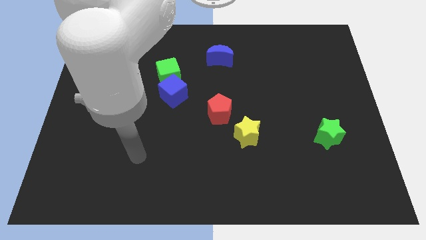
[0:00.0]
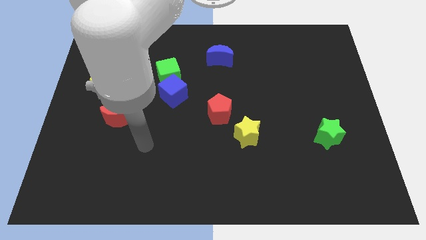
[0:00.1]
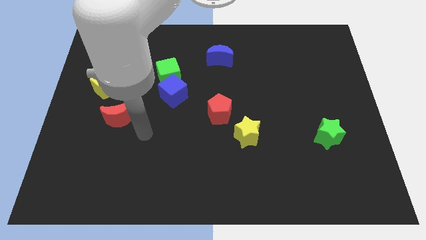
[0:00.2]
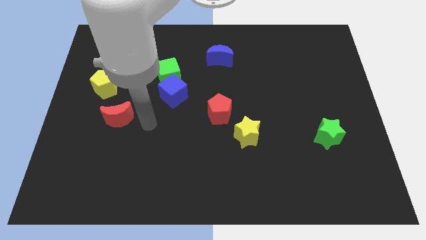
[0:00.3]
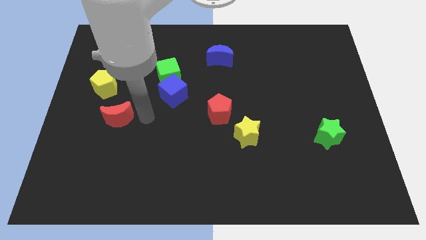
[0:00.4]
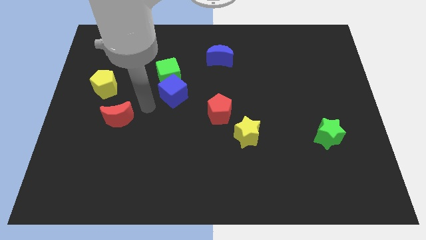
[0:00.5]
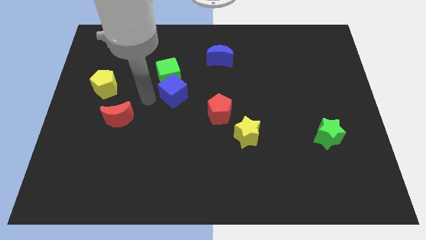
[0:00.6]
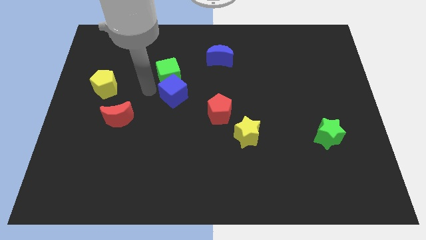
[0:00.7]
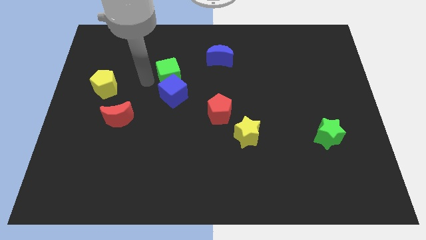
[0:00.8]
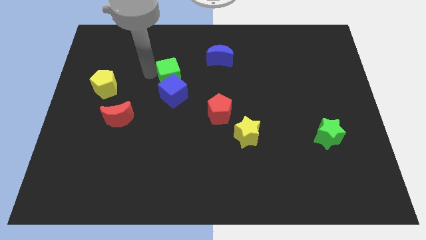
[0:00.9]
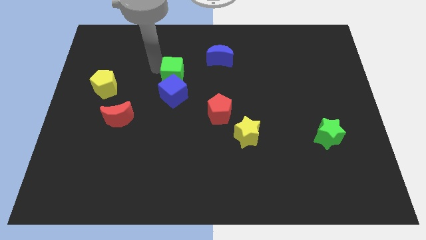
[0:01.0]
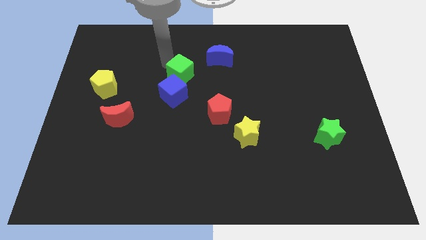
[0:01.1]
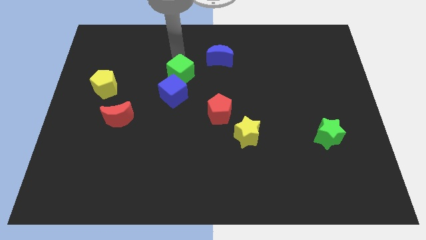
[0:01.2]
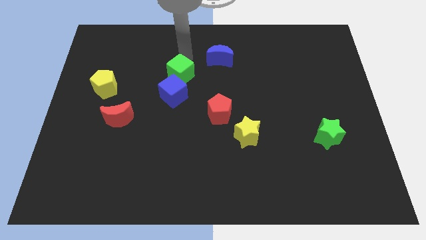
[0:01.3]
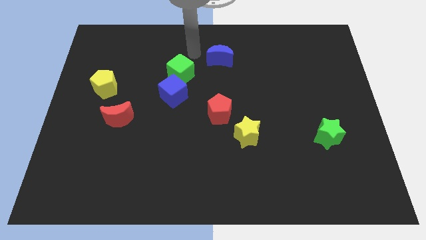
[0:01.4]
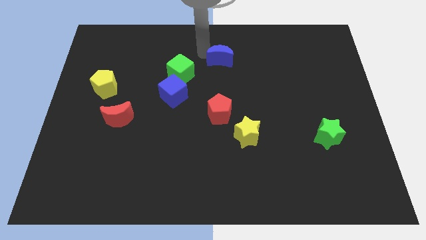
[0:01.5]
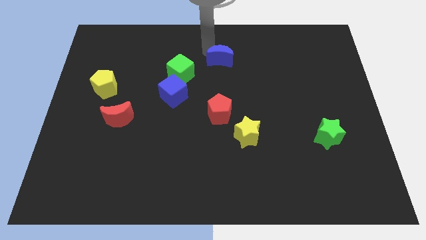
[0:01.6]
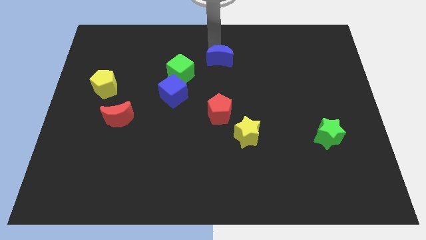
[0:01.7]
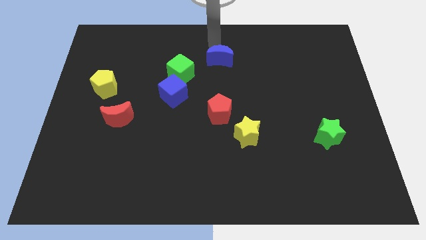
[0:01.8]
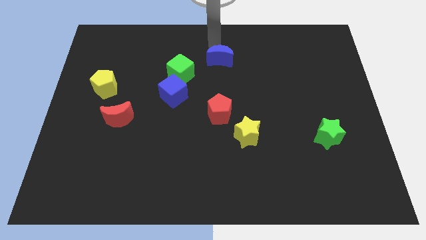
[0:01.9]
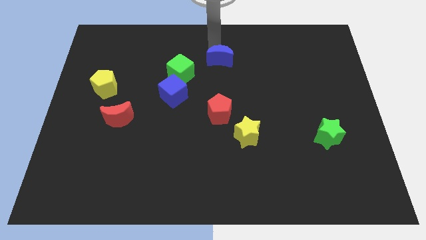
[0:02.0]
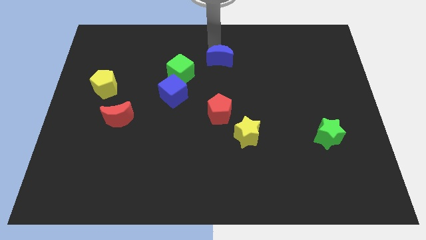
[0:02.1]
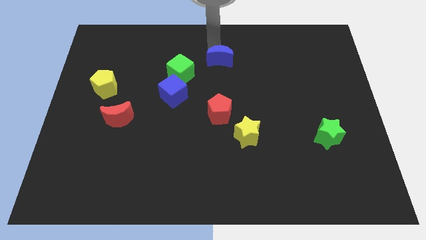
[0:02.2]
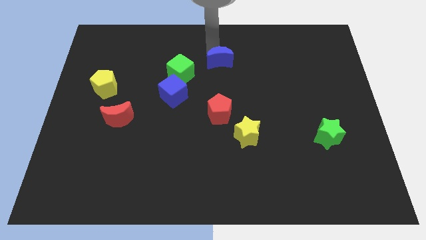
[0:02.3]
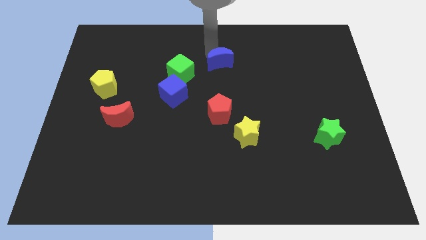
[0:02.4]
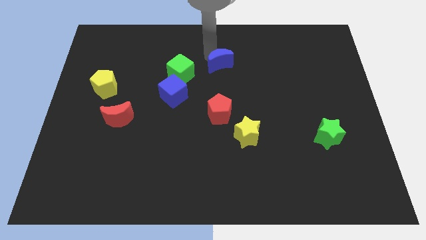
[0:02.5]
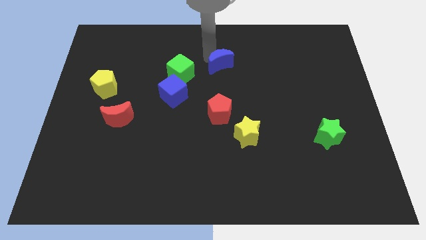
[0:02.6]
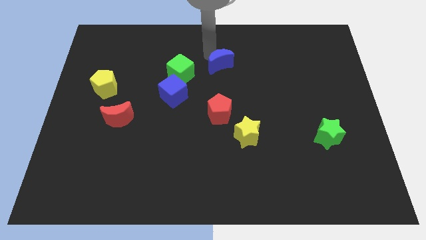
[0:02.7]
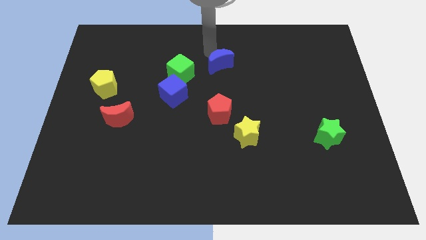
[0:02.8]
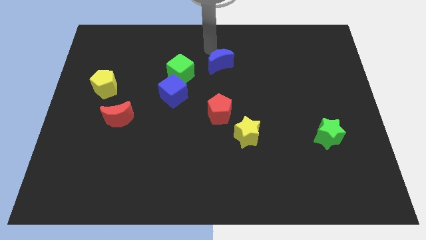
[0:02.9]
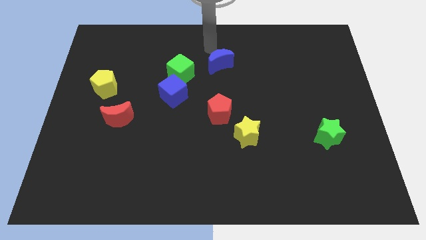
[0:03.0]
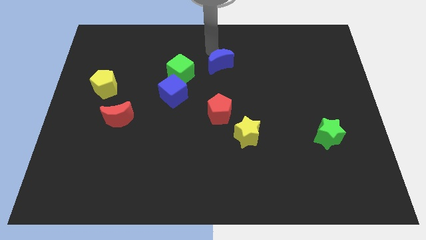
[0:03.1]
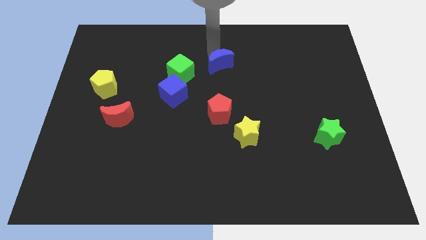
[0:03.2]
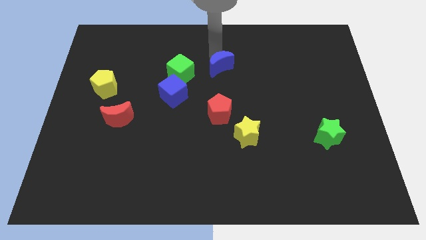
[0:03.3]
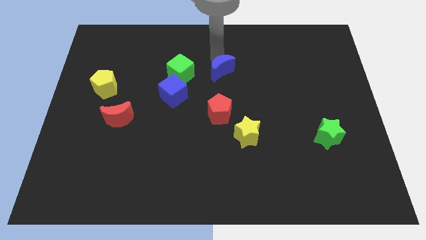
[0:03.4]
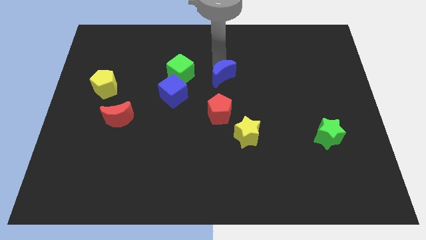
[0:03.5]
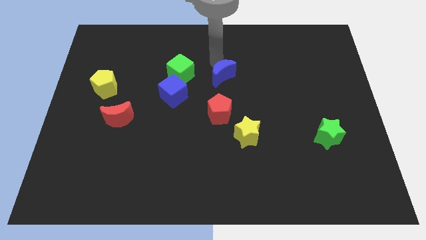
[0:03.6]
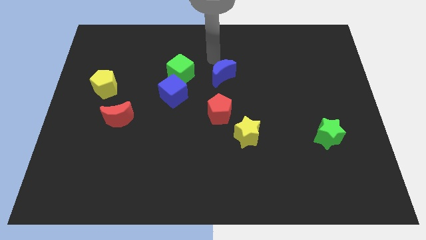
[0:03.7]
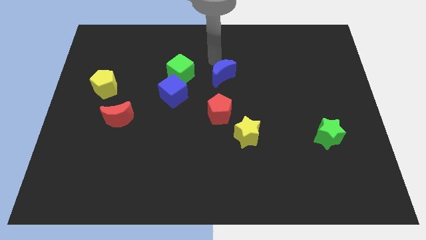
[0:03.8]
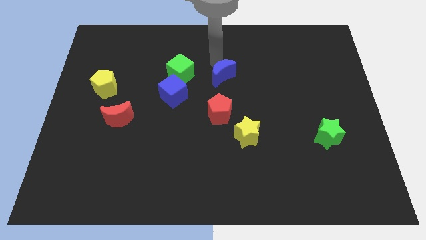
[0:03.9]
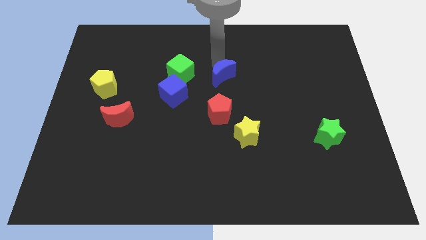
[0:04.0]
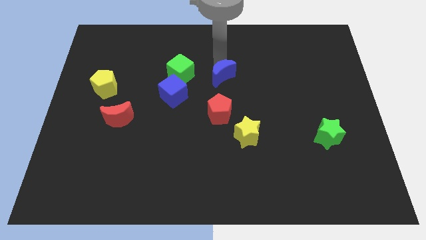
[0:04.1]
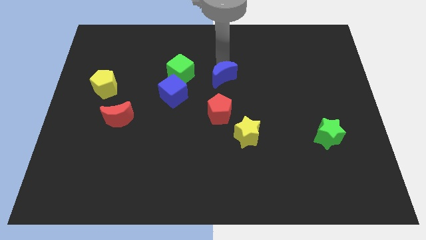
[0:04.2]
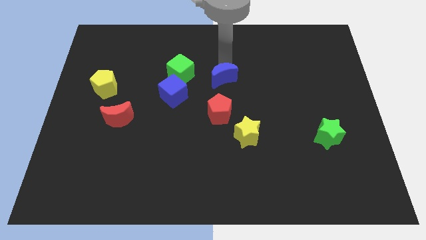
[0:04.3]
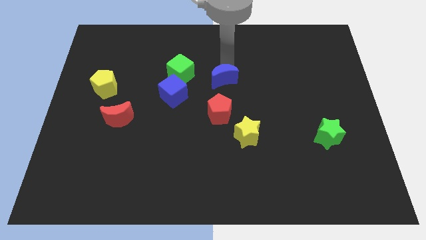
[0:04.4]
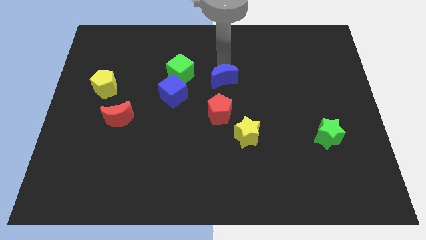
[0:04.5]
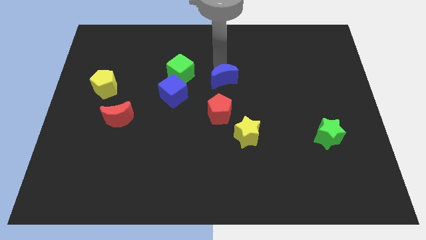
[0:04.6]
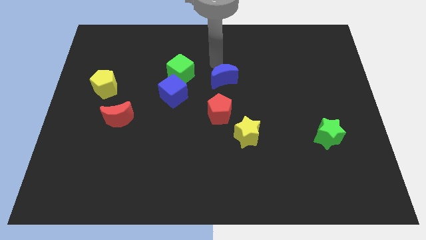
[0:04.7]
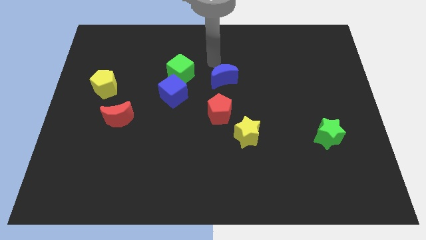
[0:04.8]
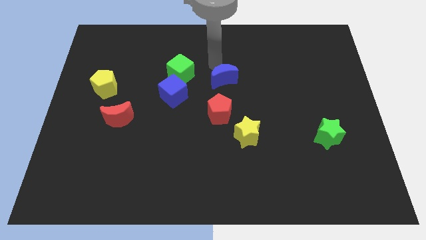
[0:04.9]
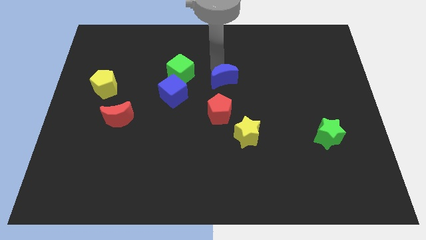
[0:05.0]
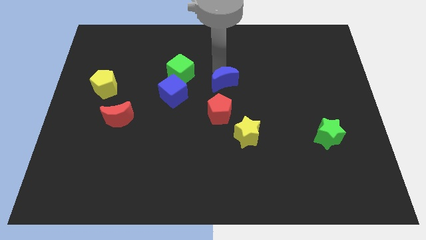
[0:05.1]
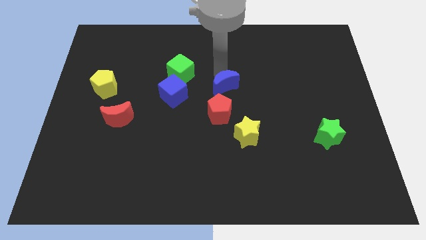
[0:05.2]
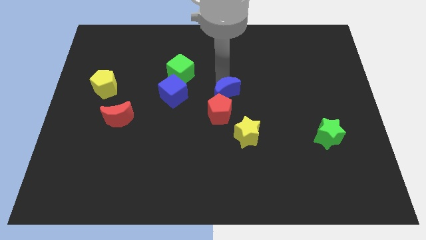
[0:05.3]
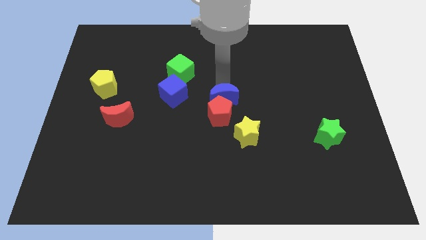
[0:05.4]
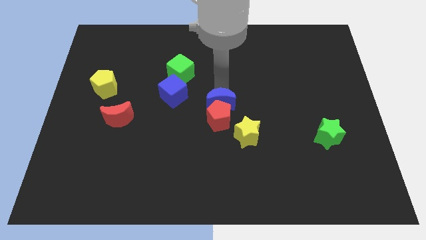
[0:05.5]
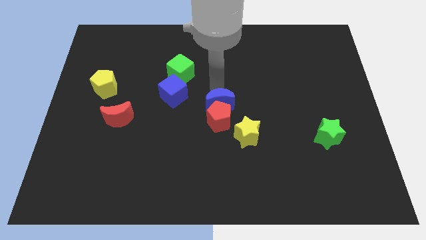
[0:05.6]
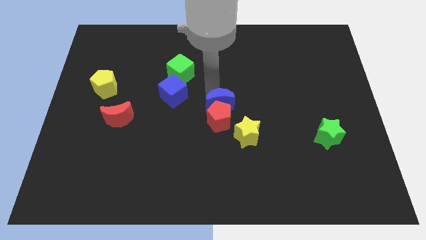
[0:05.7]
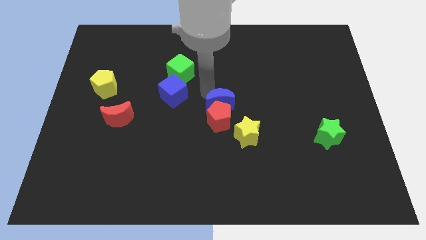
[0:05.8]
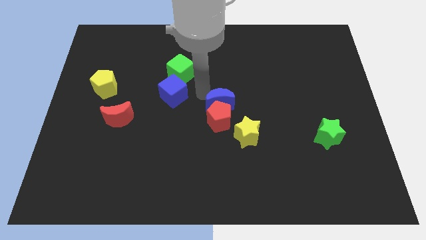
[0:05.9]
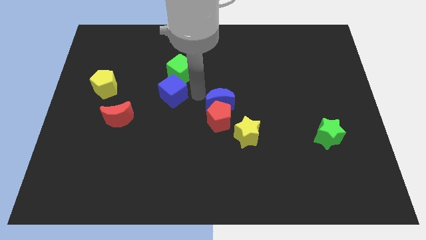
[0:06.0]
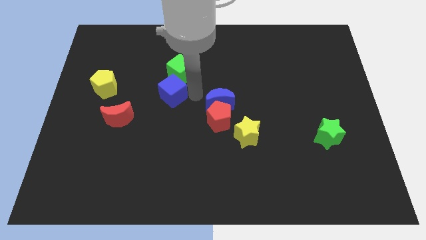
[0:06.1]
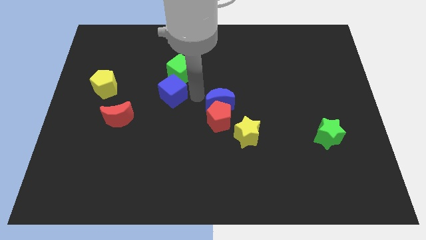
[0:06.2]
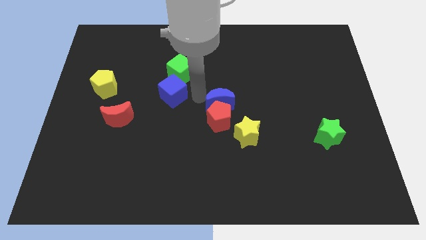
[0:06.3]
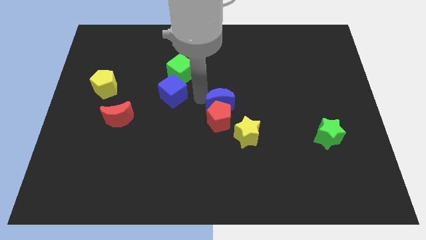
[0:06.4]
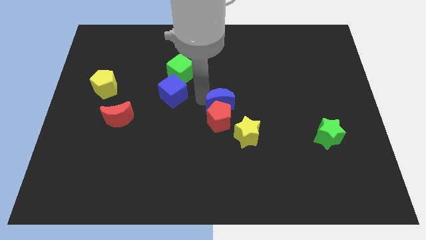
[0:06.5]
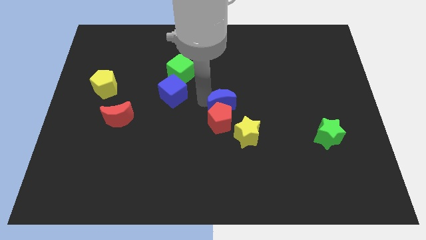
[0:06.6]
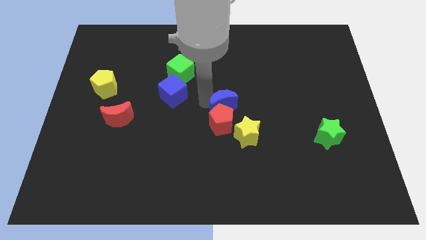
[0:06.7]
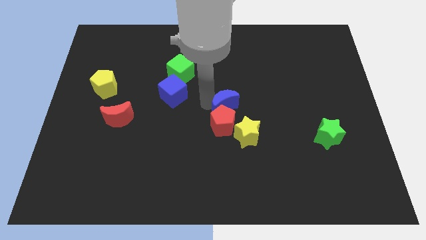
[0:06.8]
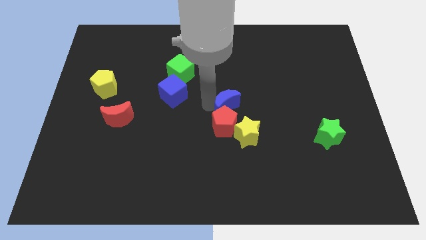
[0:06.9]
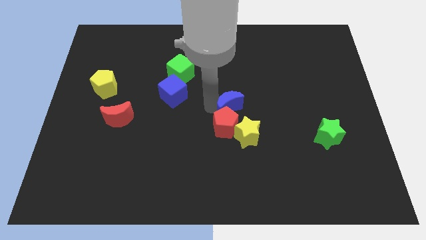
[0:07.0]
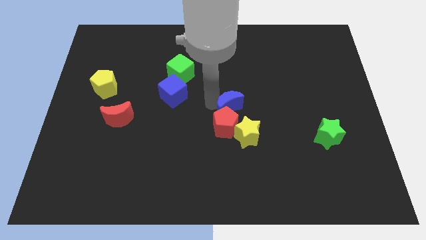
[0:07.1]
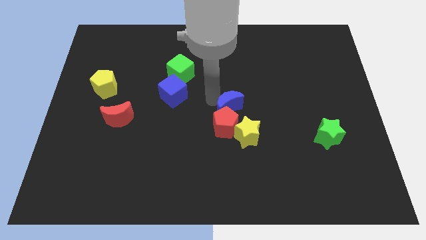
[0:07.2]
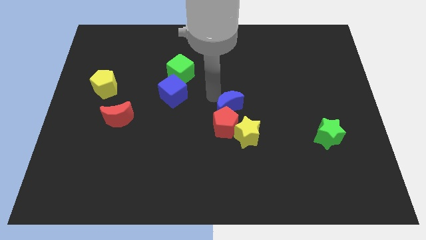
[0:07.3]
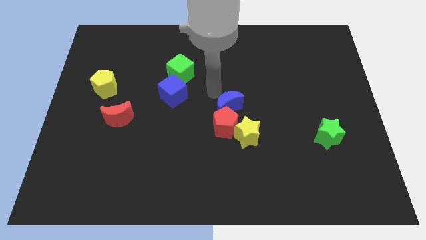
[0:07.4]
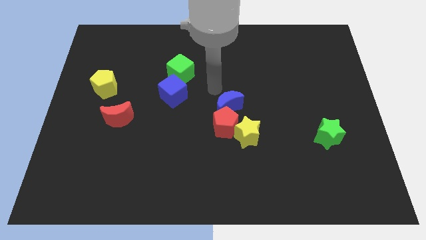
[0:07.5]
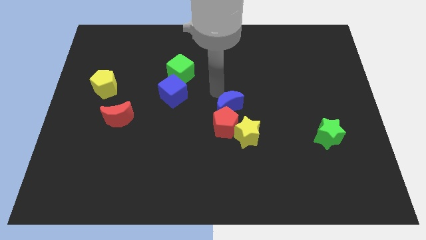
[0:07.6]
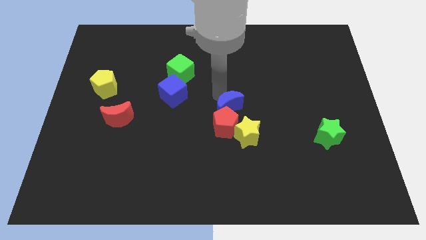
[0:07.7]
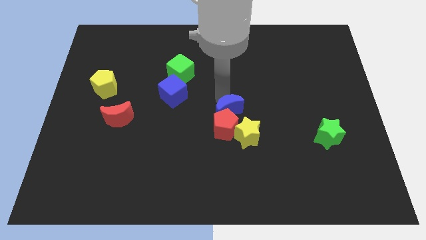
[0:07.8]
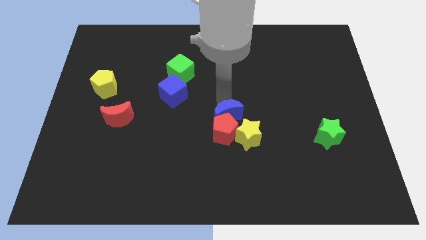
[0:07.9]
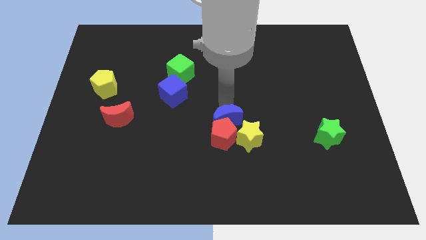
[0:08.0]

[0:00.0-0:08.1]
move the blue moon downwards

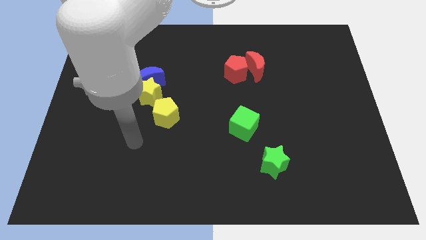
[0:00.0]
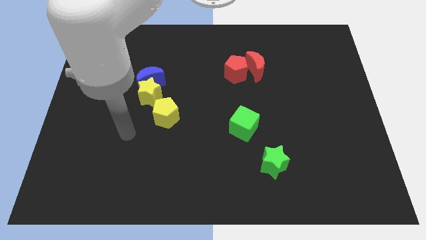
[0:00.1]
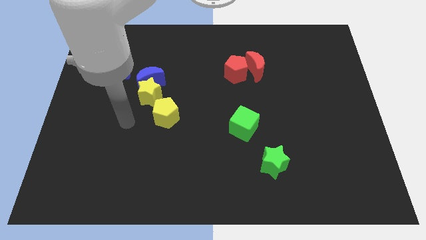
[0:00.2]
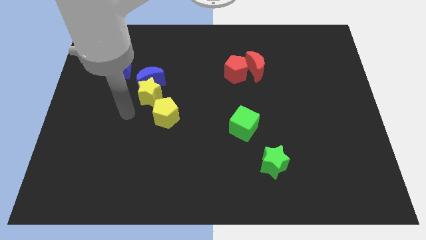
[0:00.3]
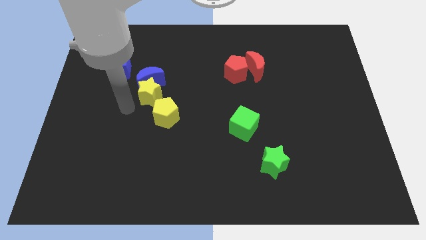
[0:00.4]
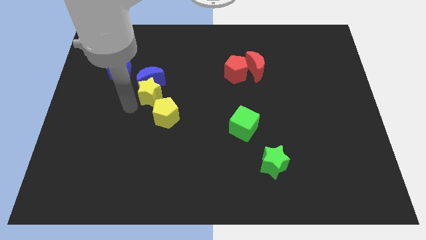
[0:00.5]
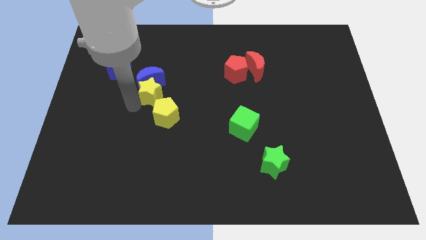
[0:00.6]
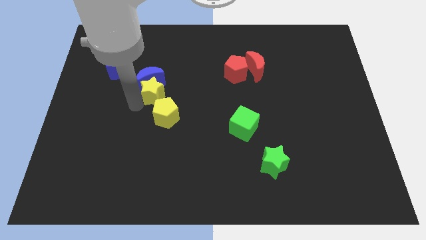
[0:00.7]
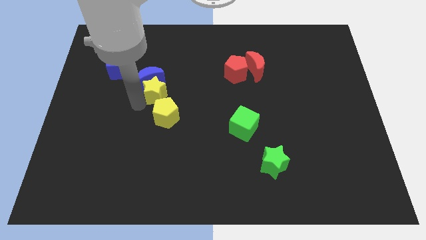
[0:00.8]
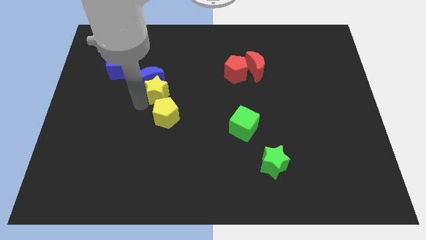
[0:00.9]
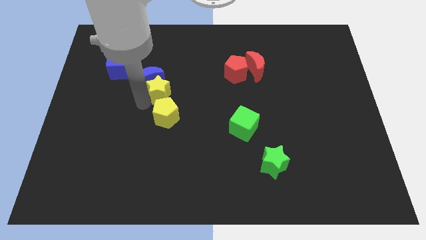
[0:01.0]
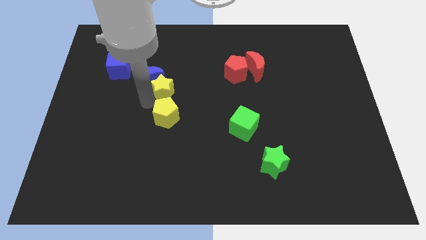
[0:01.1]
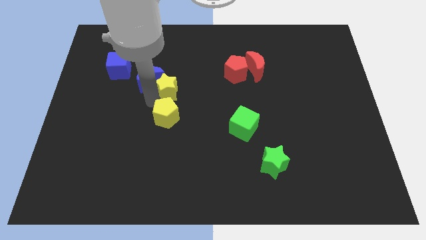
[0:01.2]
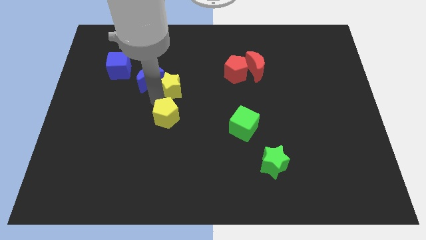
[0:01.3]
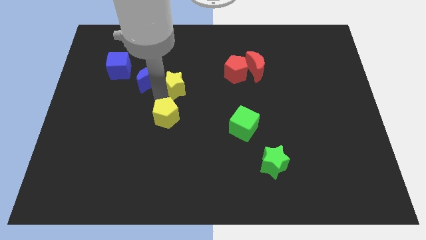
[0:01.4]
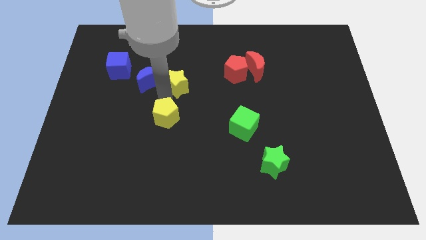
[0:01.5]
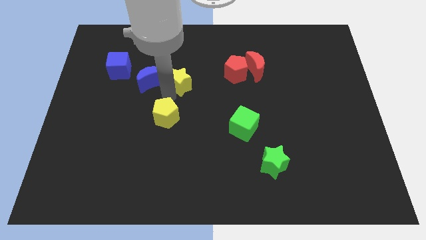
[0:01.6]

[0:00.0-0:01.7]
slide the yellow star a little upwards and then to the right
